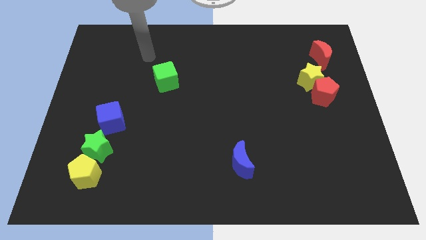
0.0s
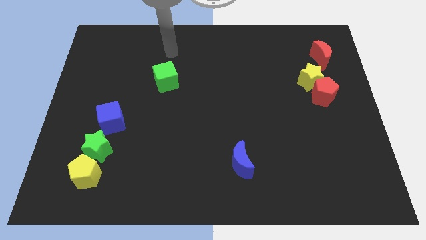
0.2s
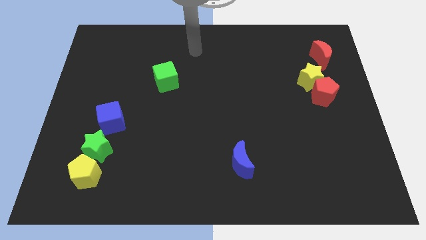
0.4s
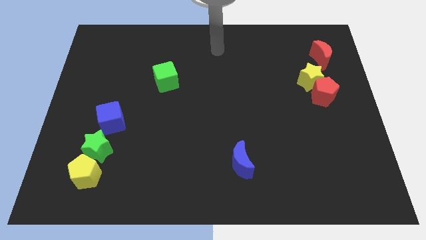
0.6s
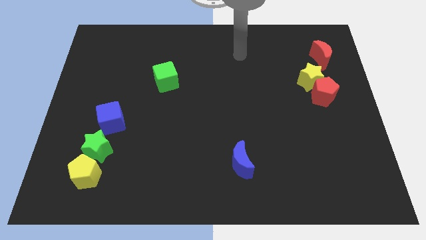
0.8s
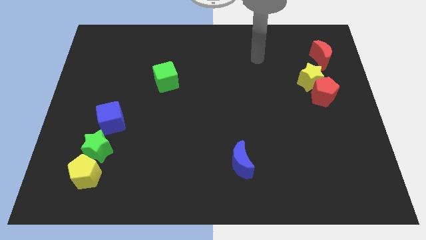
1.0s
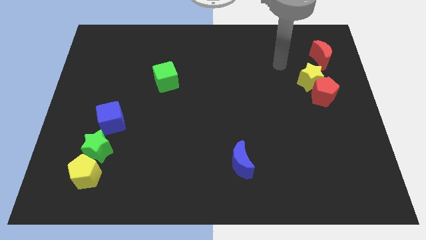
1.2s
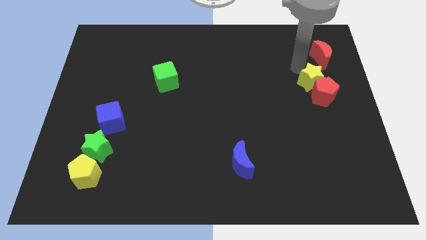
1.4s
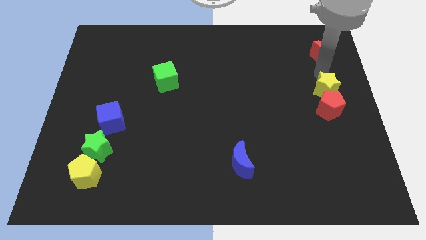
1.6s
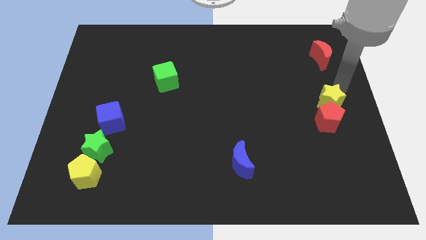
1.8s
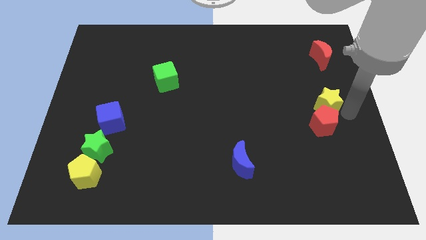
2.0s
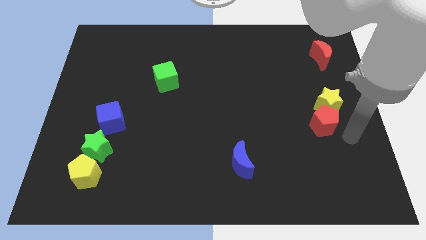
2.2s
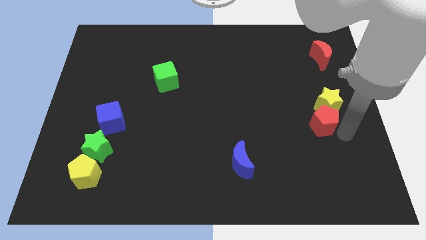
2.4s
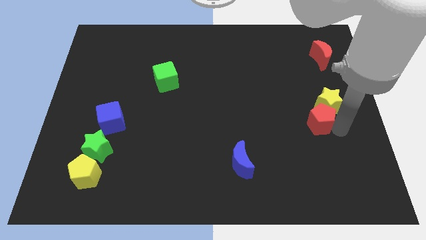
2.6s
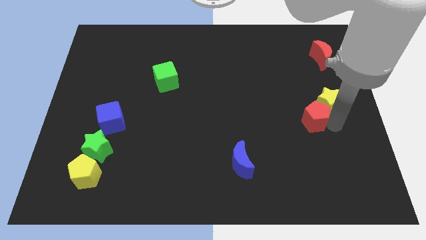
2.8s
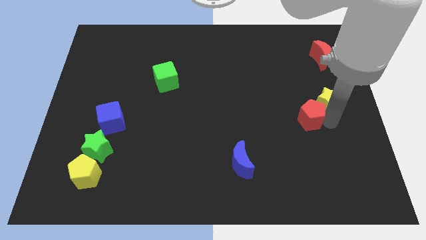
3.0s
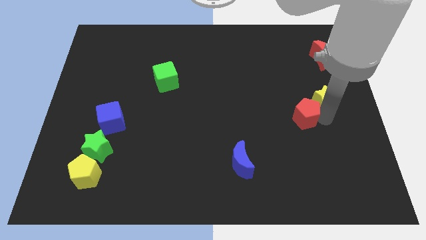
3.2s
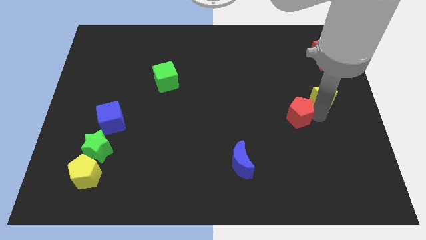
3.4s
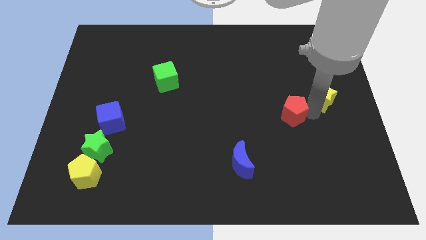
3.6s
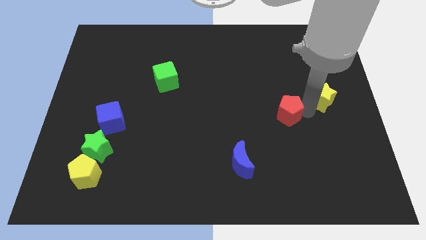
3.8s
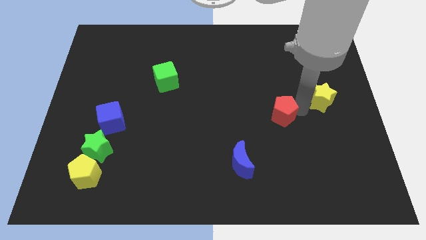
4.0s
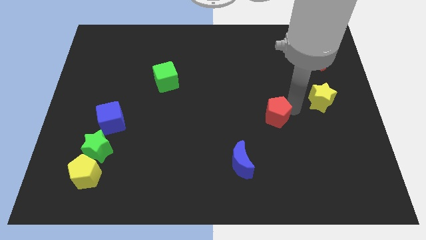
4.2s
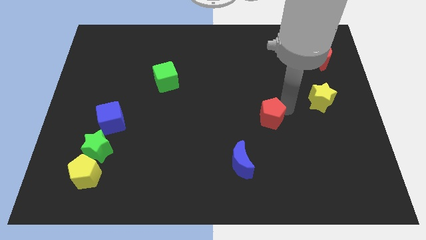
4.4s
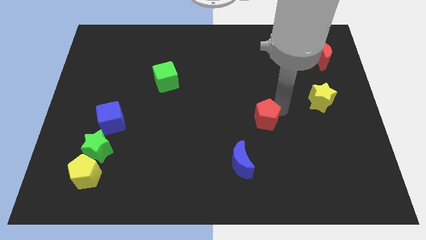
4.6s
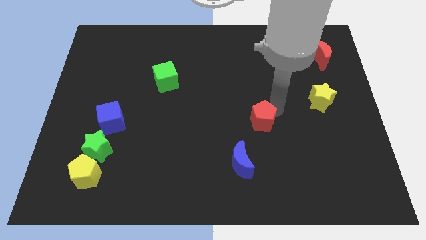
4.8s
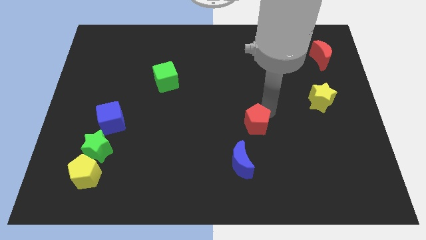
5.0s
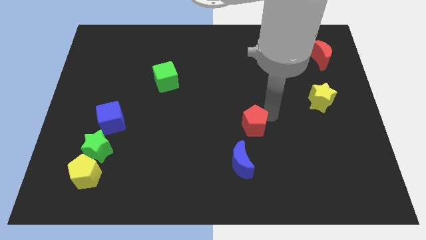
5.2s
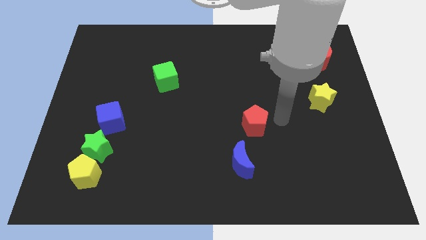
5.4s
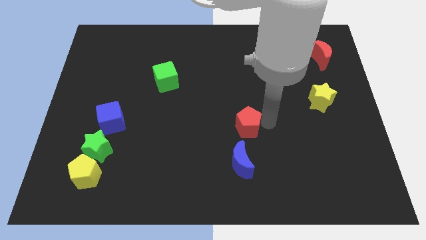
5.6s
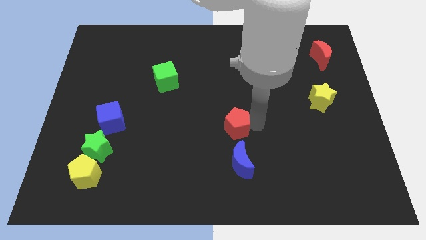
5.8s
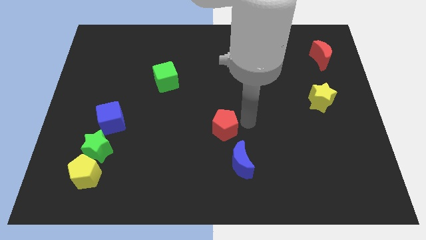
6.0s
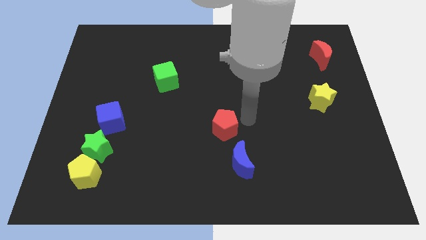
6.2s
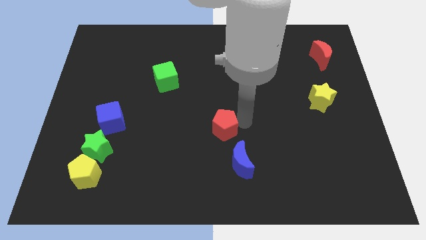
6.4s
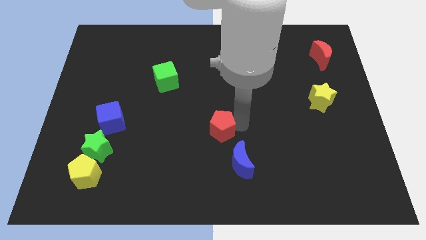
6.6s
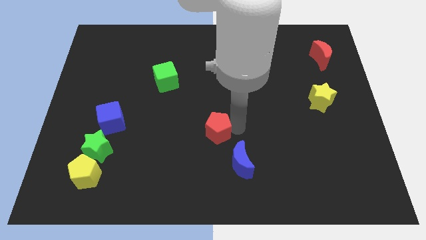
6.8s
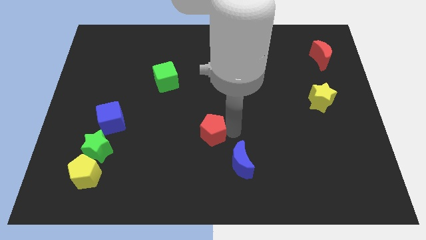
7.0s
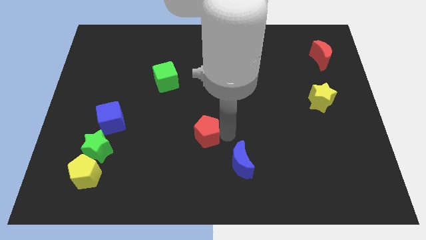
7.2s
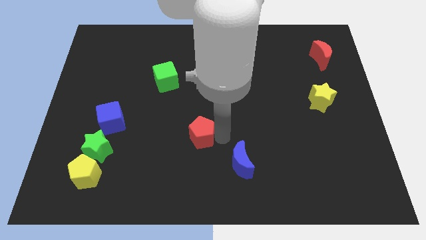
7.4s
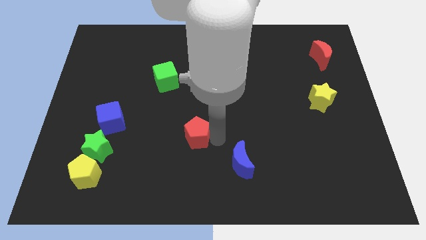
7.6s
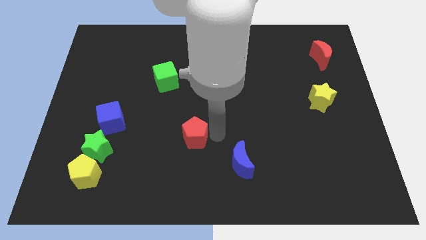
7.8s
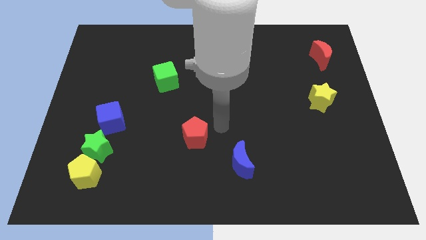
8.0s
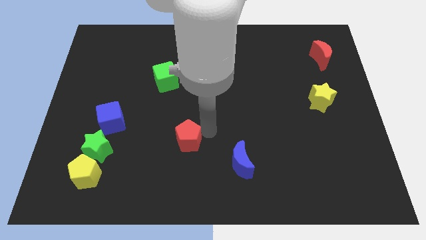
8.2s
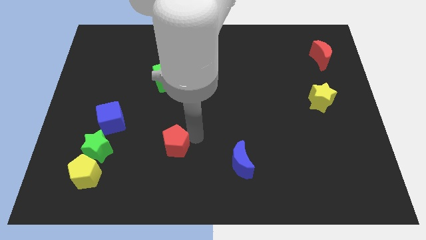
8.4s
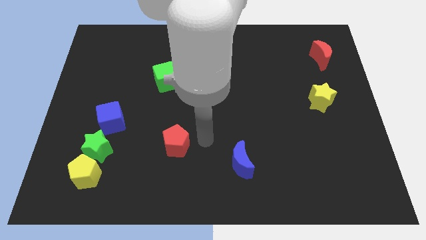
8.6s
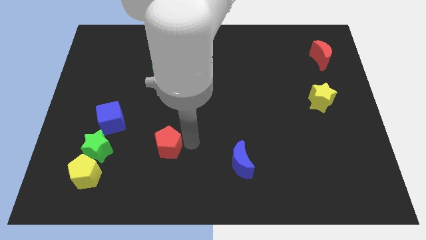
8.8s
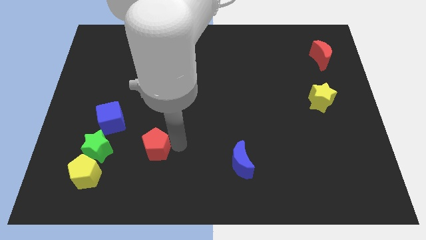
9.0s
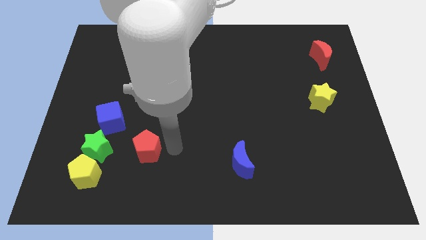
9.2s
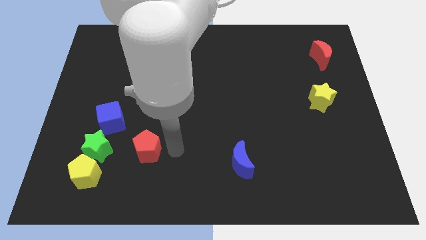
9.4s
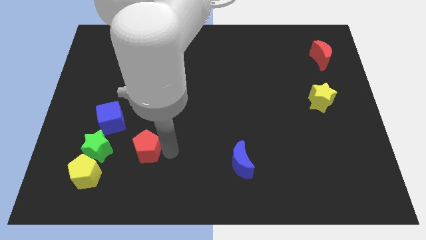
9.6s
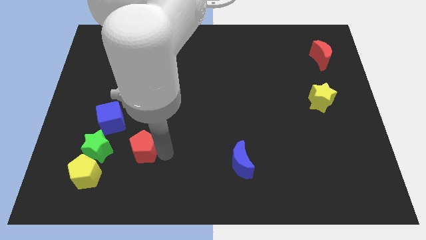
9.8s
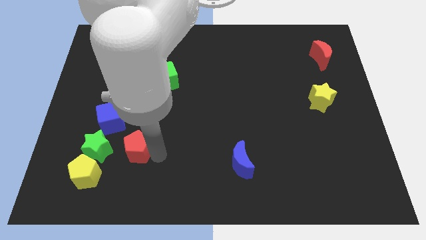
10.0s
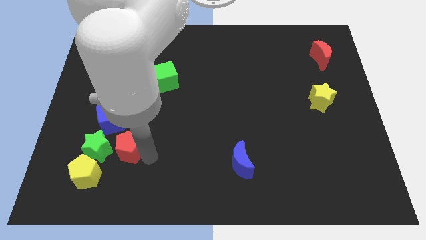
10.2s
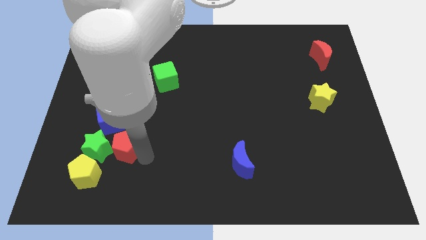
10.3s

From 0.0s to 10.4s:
move the red pentagon close to the green star

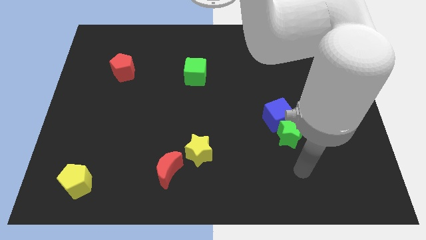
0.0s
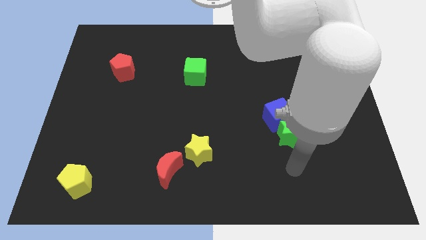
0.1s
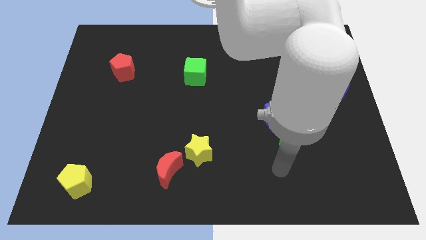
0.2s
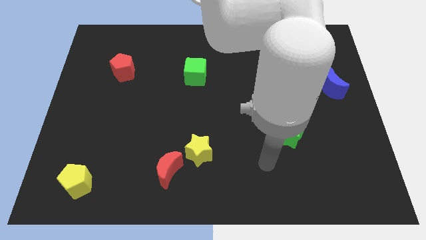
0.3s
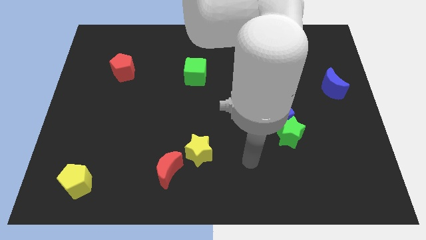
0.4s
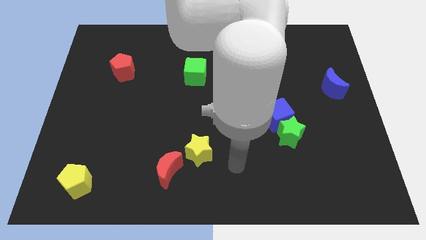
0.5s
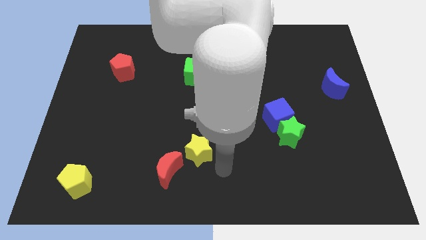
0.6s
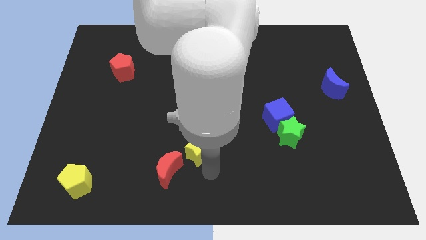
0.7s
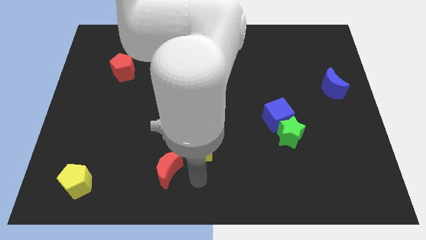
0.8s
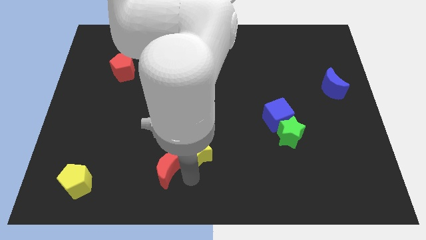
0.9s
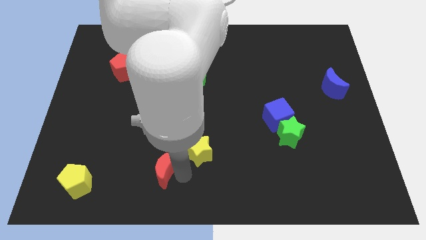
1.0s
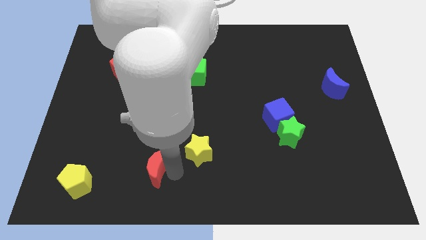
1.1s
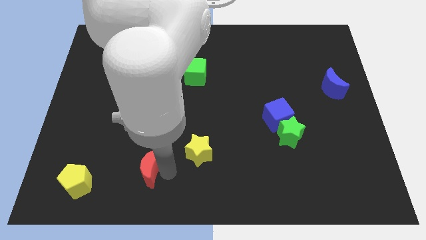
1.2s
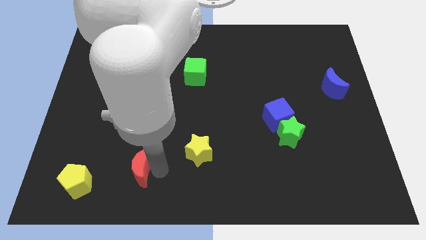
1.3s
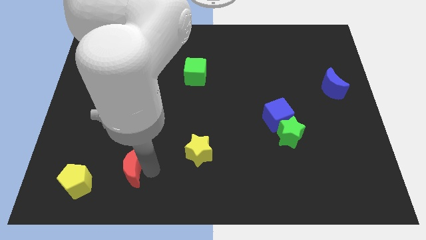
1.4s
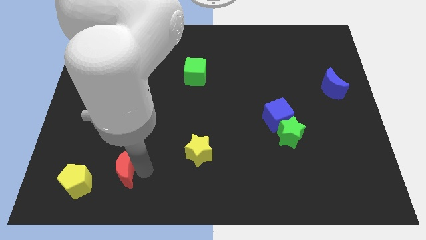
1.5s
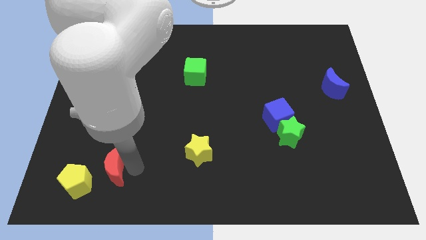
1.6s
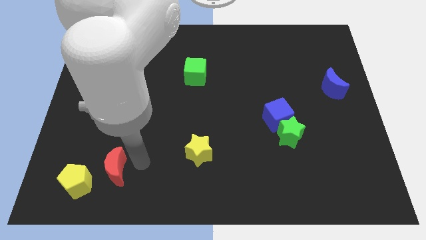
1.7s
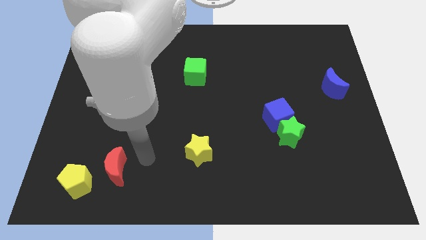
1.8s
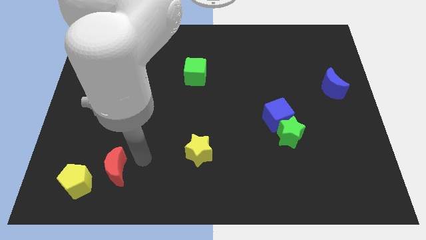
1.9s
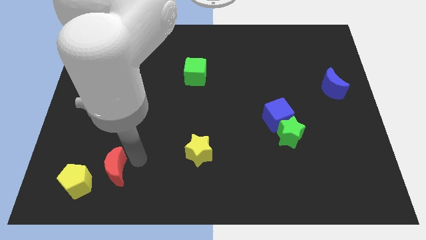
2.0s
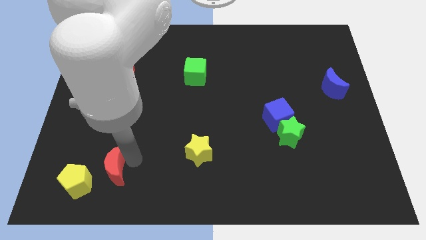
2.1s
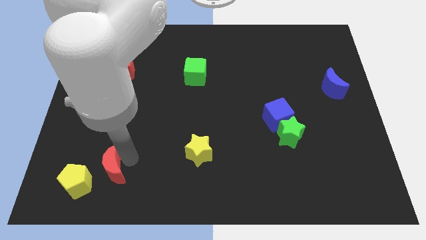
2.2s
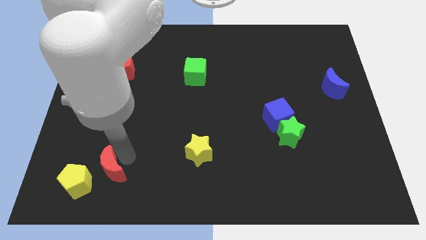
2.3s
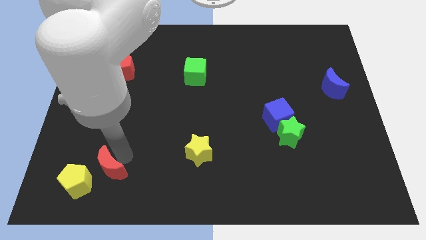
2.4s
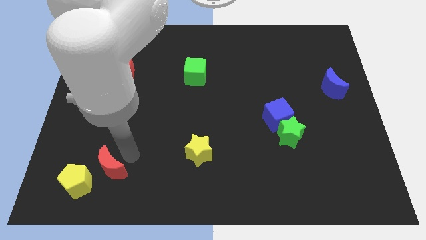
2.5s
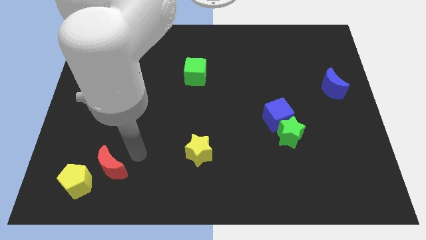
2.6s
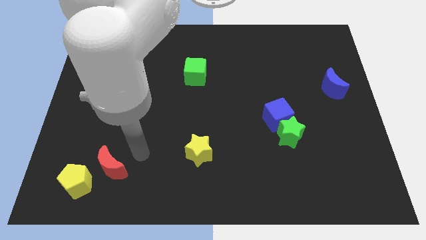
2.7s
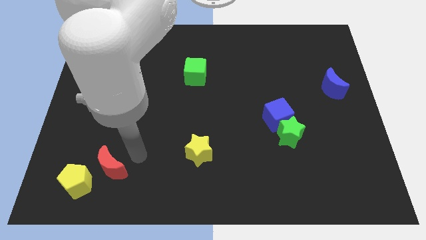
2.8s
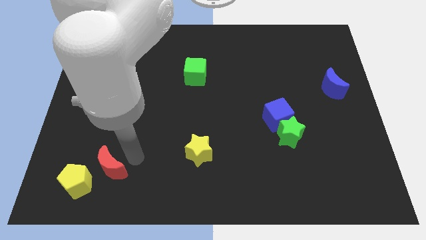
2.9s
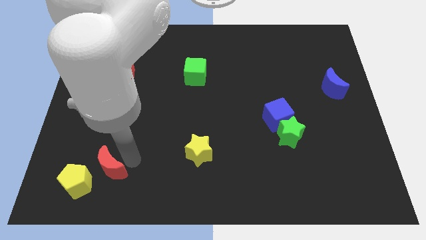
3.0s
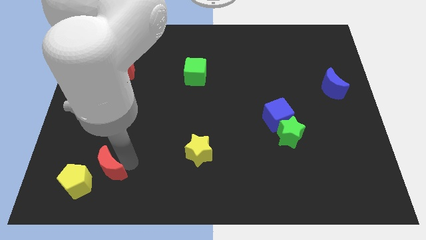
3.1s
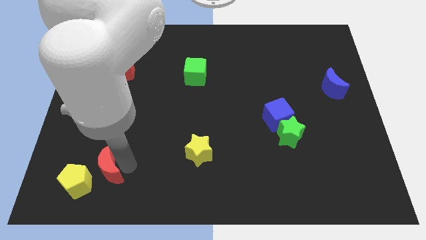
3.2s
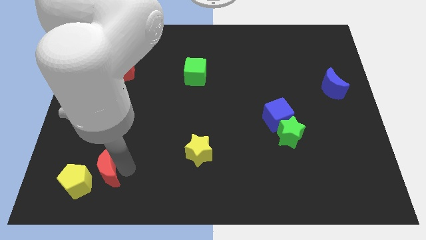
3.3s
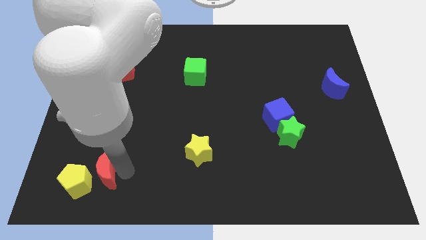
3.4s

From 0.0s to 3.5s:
push the red moon next to the yellow pentagon
